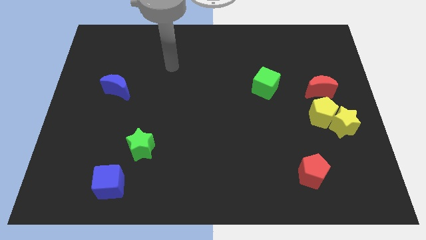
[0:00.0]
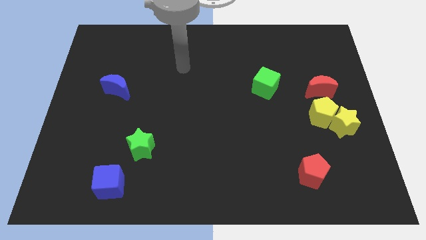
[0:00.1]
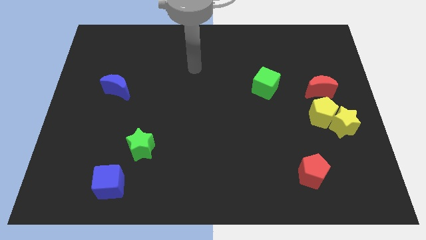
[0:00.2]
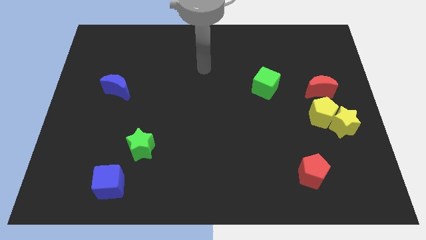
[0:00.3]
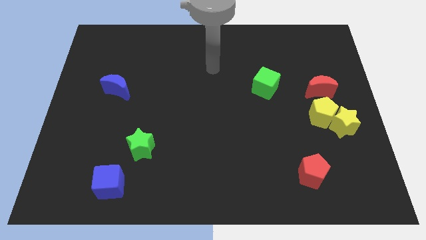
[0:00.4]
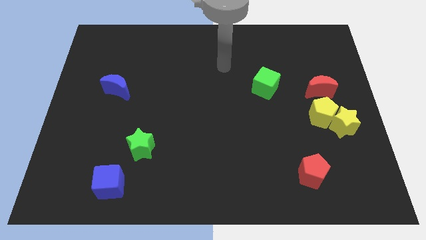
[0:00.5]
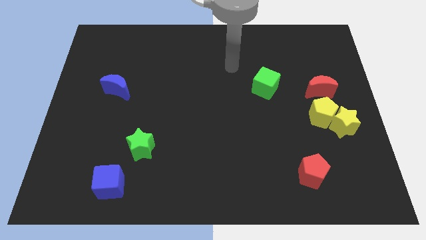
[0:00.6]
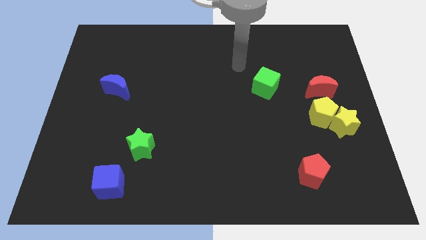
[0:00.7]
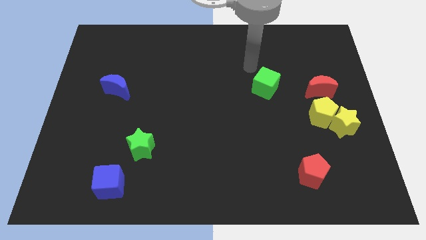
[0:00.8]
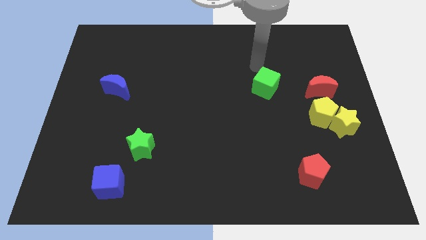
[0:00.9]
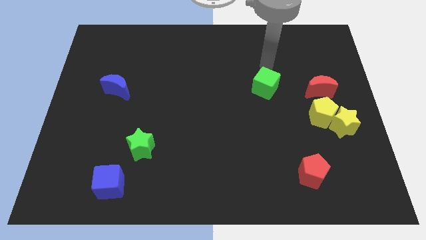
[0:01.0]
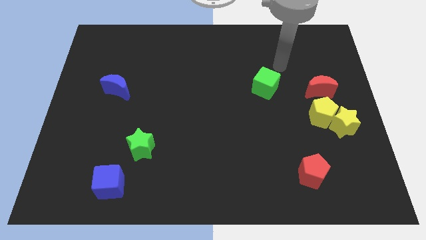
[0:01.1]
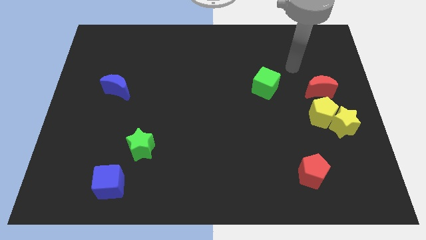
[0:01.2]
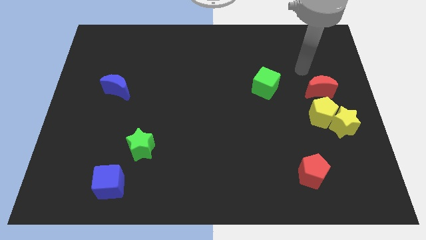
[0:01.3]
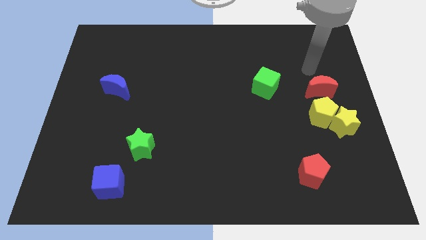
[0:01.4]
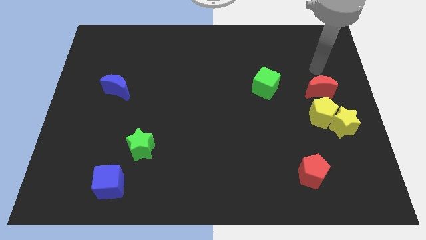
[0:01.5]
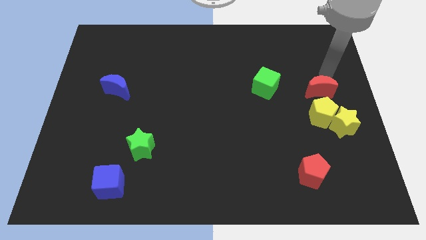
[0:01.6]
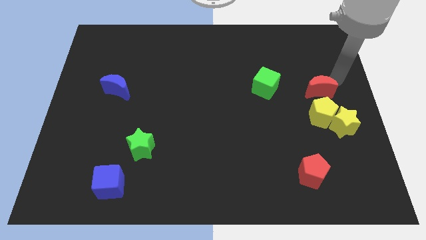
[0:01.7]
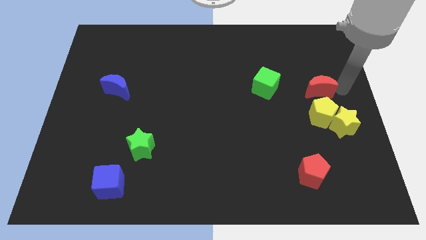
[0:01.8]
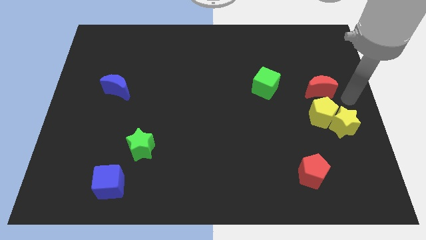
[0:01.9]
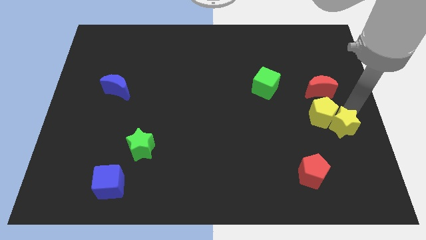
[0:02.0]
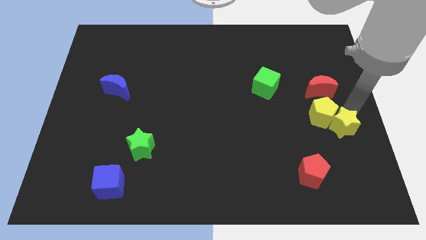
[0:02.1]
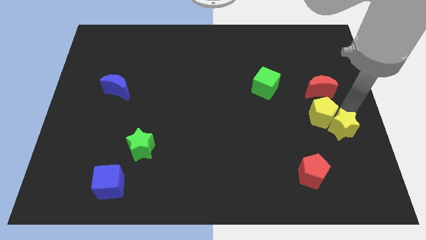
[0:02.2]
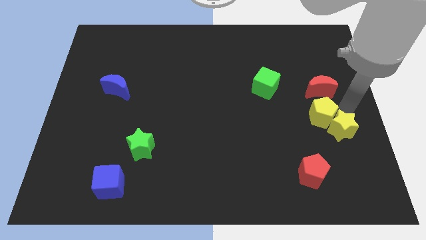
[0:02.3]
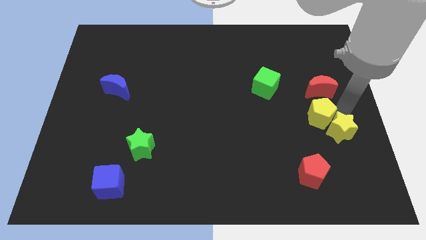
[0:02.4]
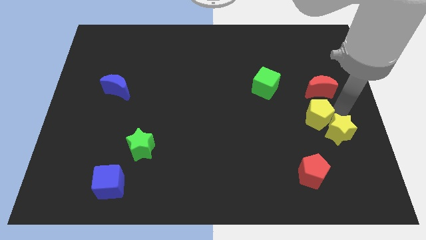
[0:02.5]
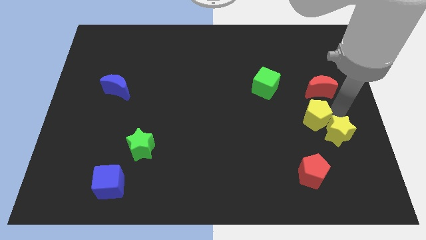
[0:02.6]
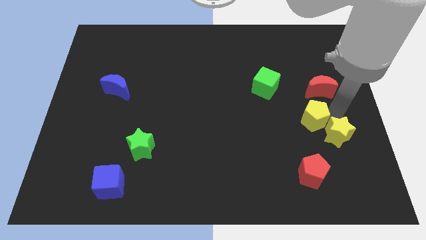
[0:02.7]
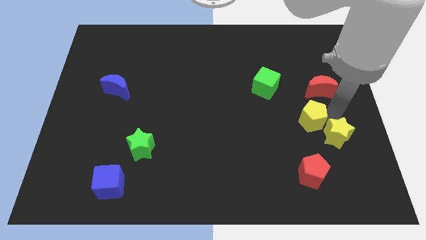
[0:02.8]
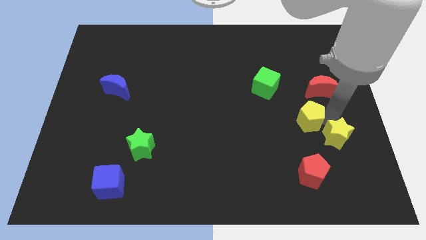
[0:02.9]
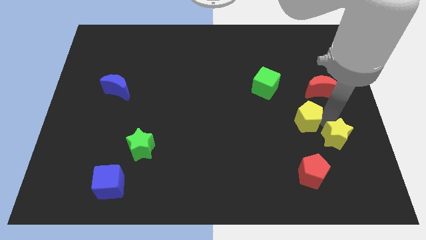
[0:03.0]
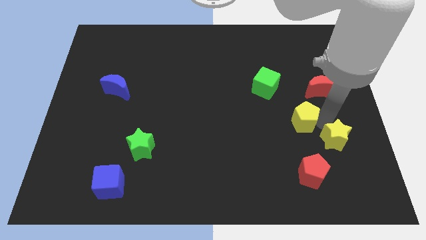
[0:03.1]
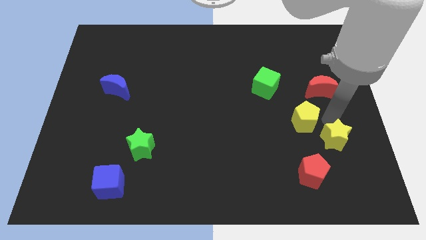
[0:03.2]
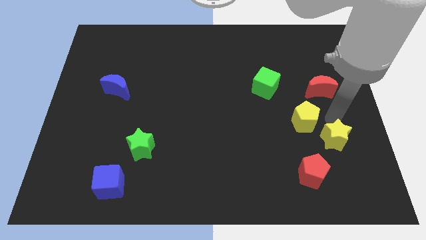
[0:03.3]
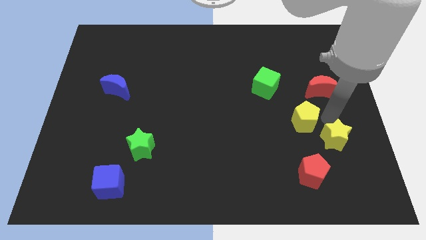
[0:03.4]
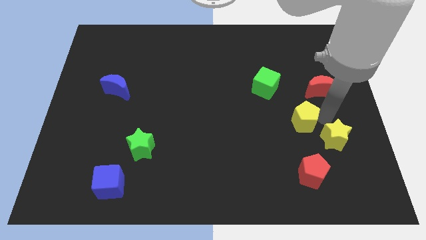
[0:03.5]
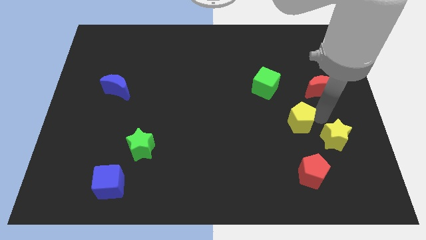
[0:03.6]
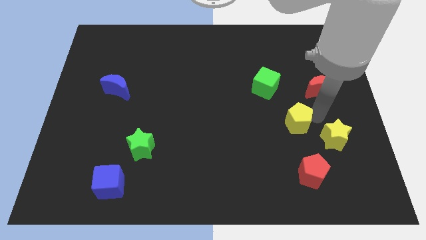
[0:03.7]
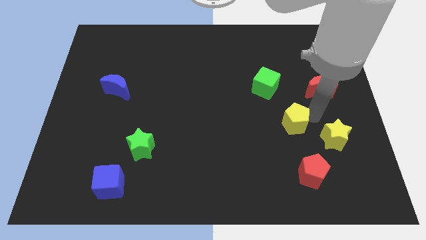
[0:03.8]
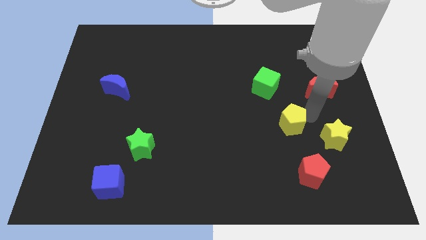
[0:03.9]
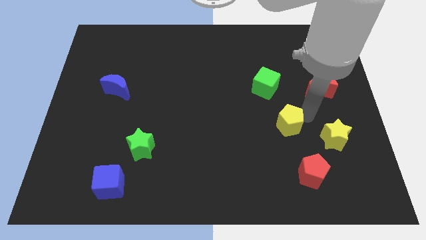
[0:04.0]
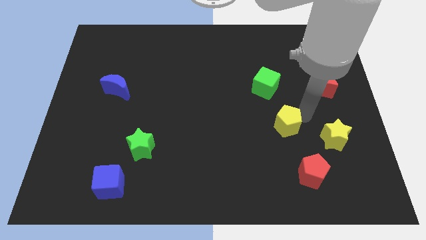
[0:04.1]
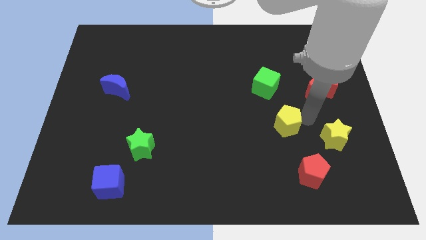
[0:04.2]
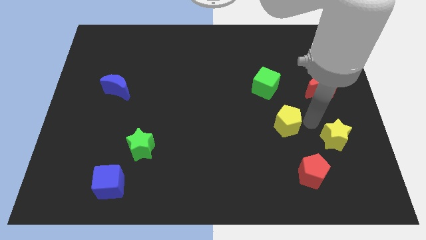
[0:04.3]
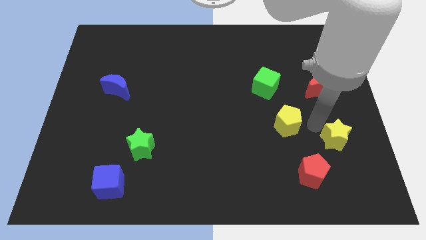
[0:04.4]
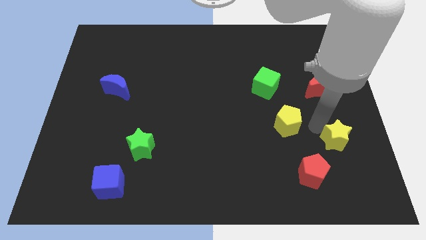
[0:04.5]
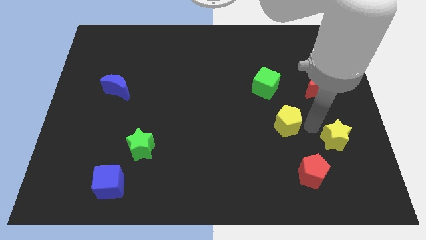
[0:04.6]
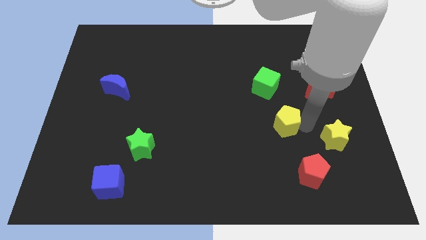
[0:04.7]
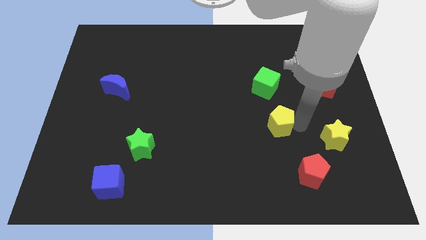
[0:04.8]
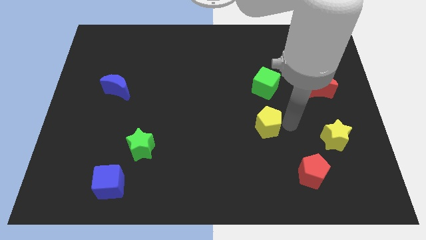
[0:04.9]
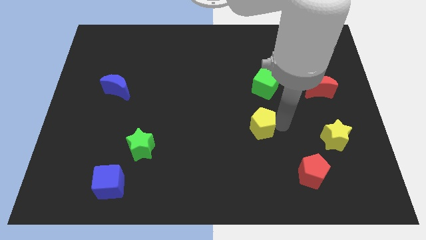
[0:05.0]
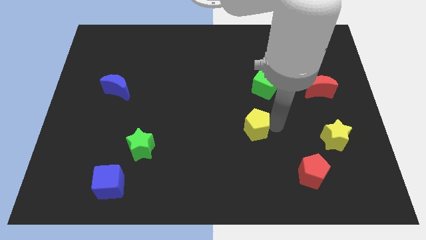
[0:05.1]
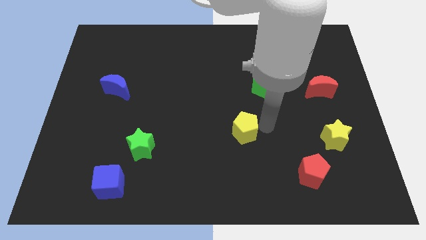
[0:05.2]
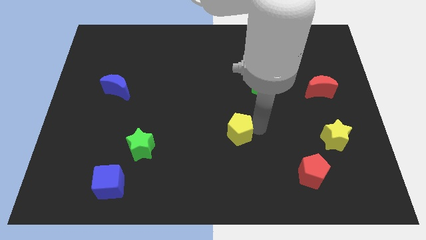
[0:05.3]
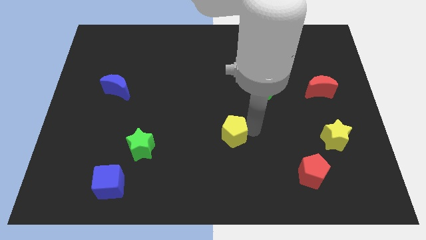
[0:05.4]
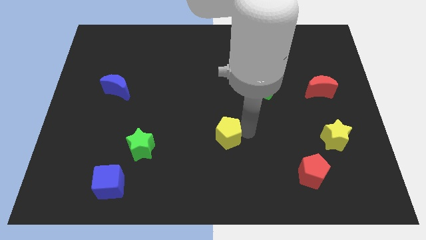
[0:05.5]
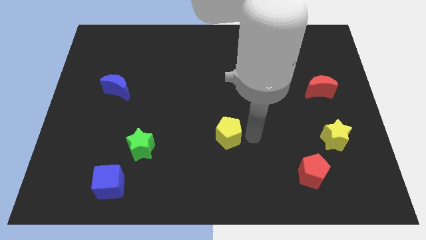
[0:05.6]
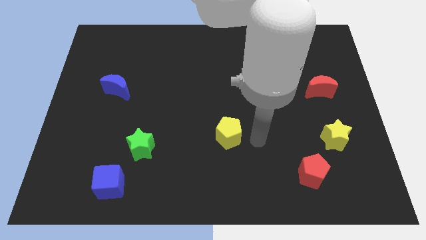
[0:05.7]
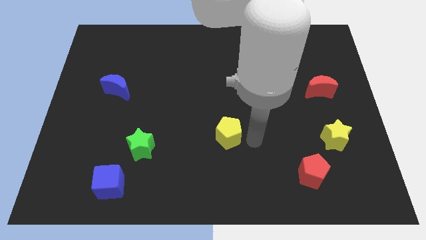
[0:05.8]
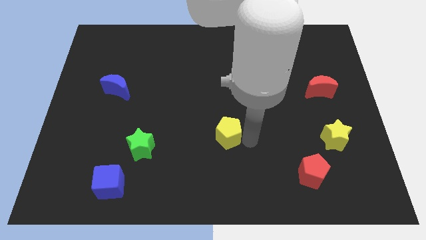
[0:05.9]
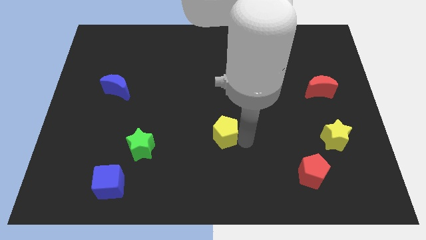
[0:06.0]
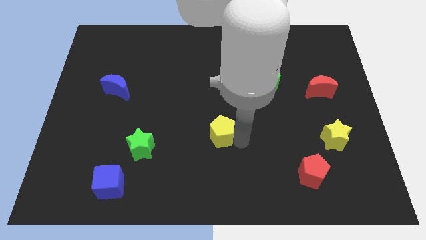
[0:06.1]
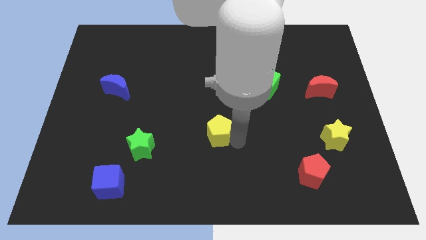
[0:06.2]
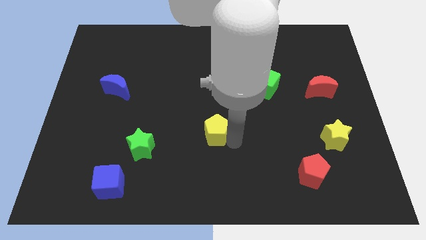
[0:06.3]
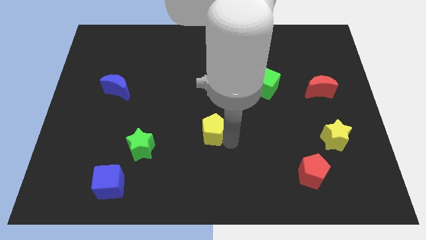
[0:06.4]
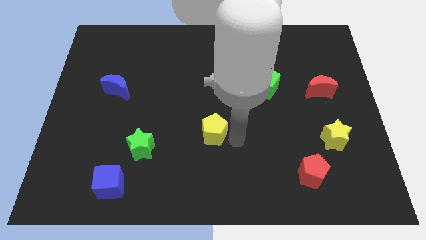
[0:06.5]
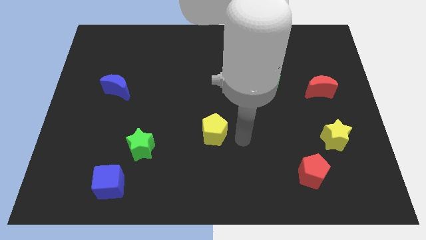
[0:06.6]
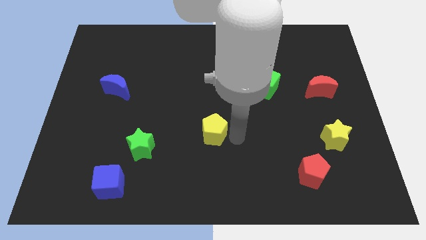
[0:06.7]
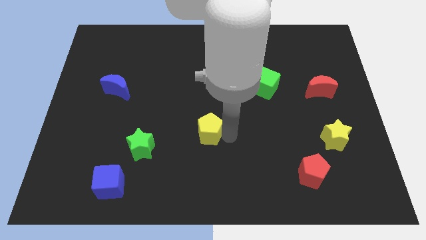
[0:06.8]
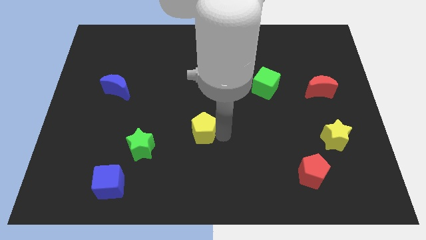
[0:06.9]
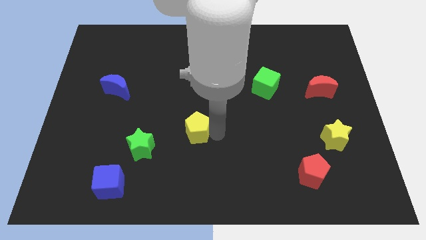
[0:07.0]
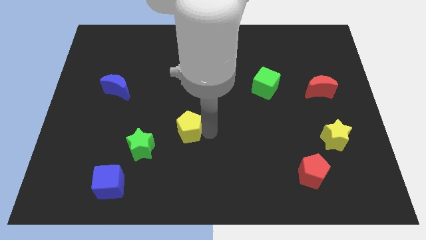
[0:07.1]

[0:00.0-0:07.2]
move the yellow pentagon to the top right of the green star
